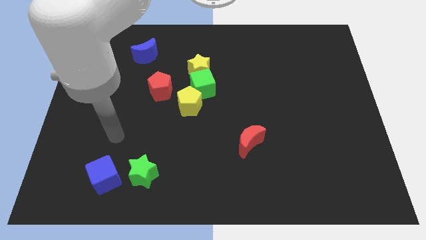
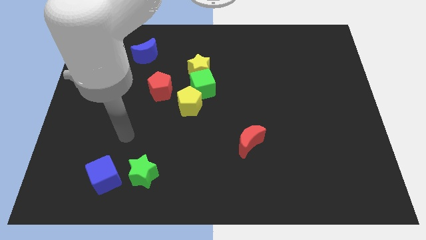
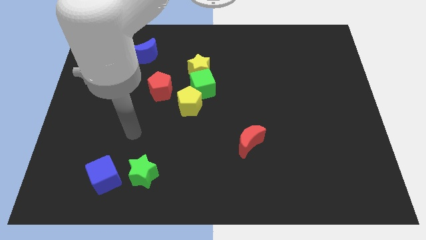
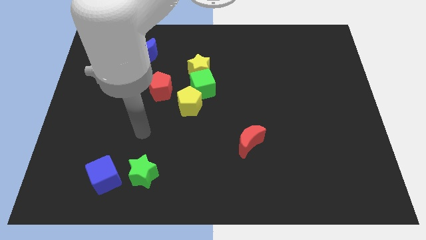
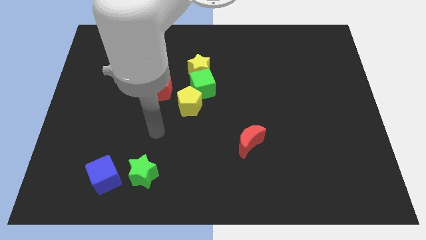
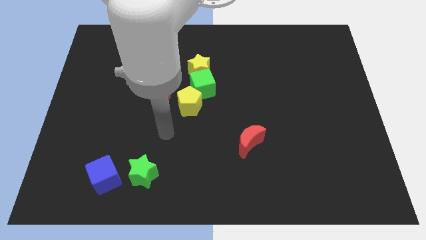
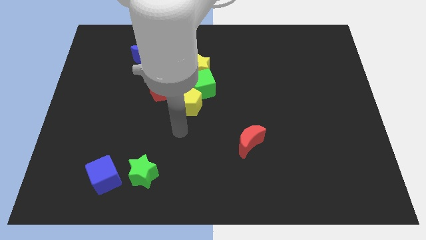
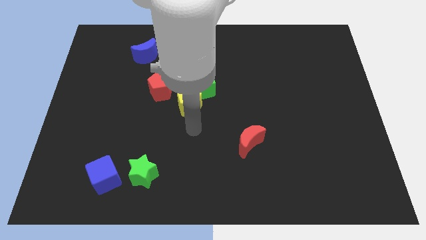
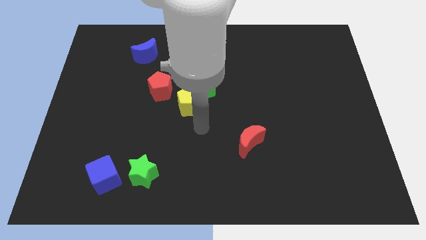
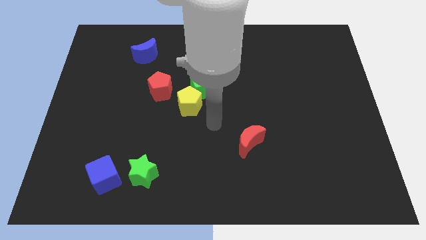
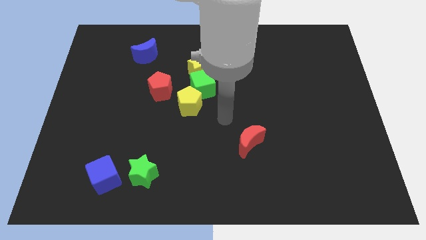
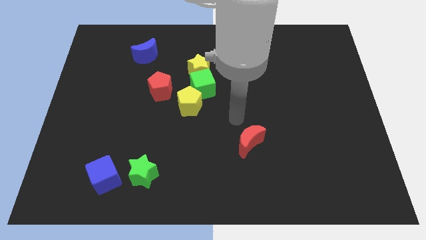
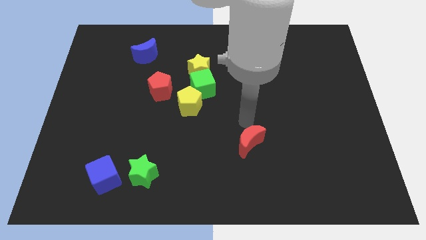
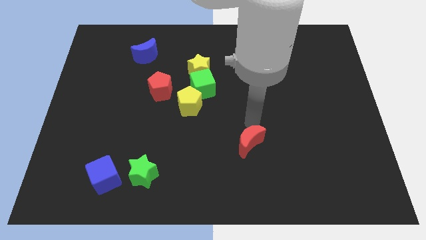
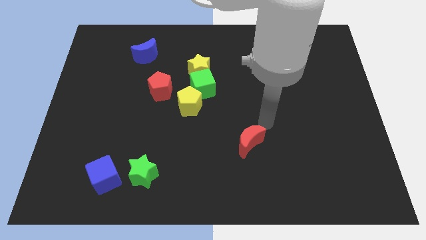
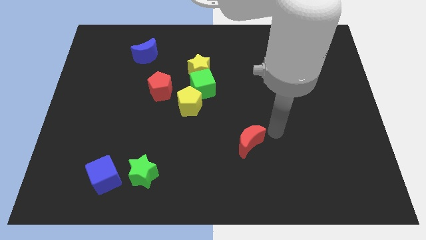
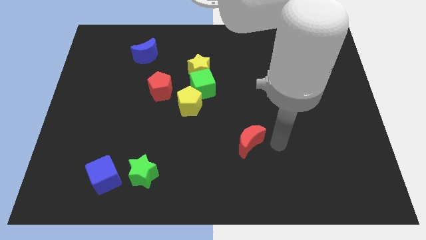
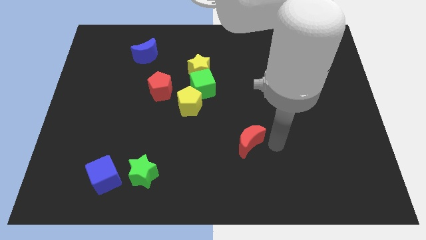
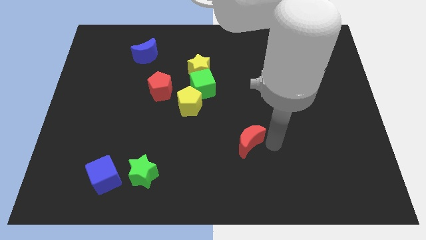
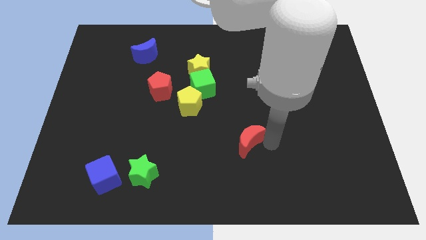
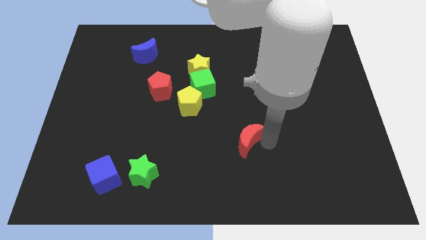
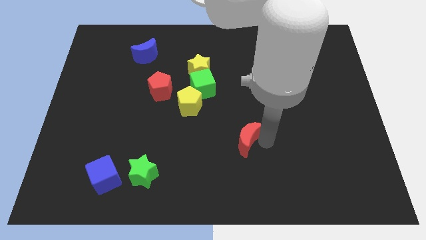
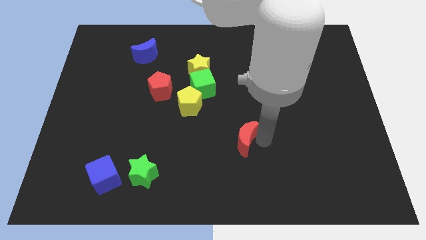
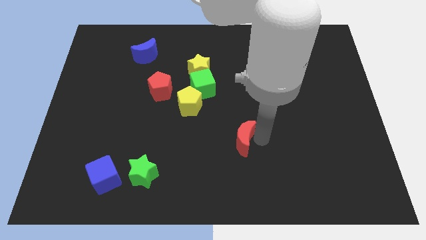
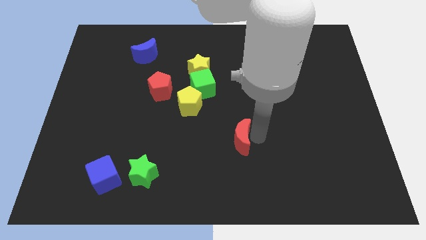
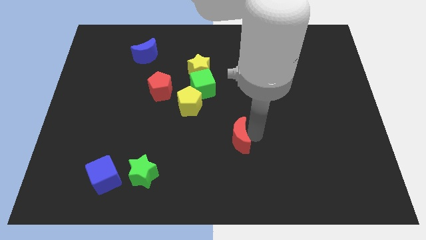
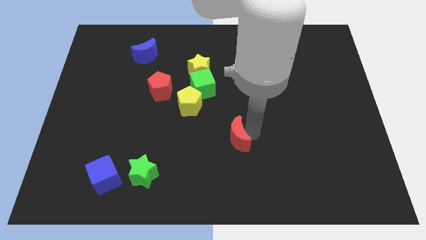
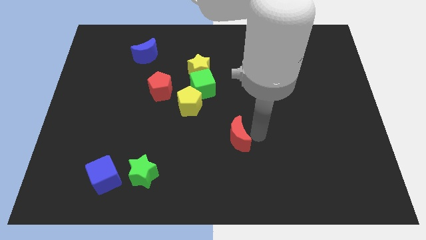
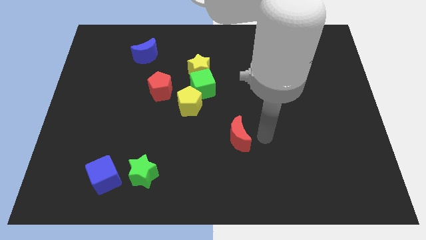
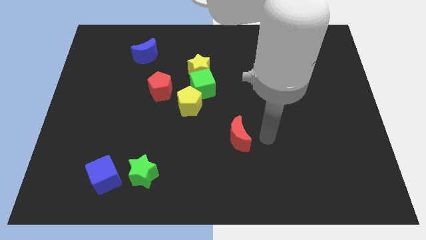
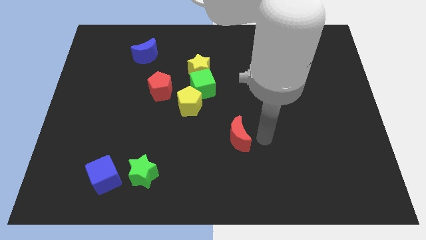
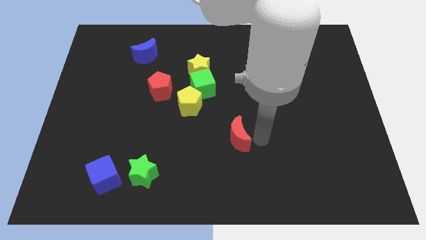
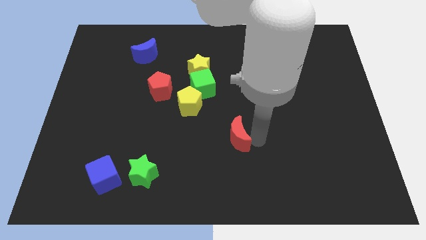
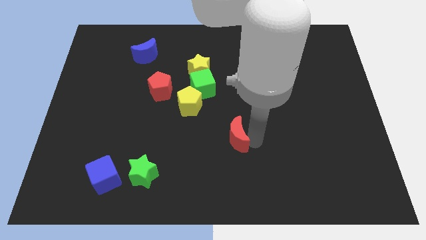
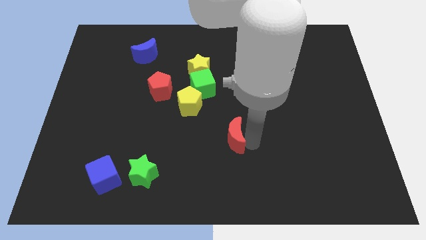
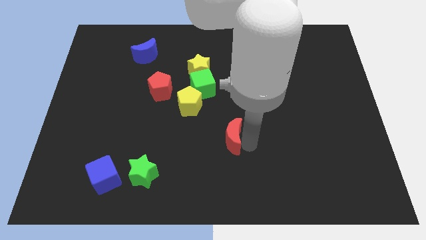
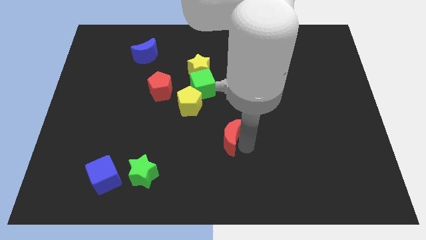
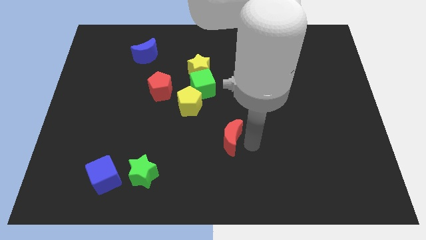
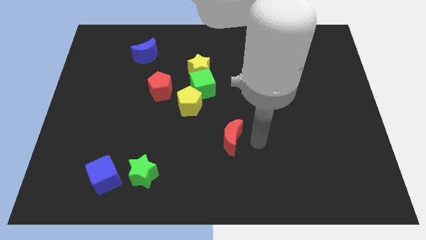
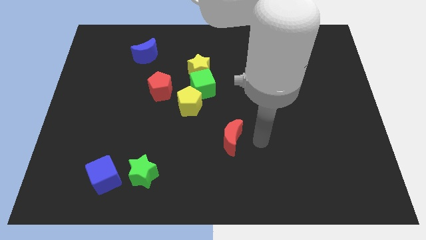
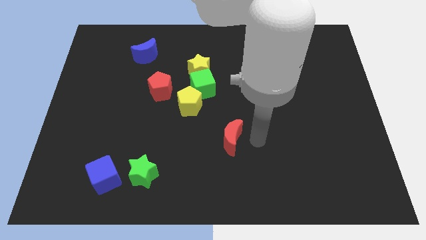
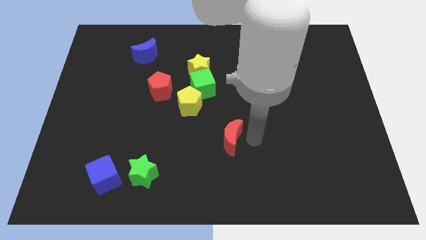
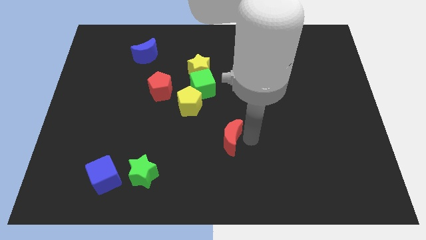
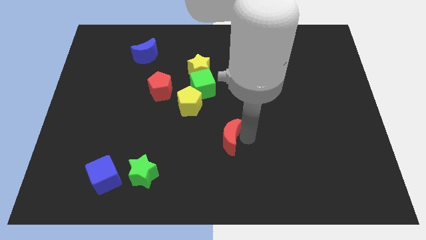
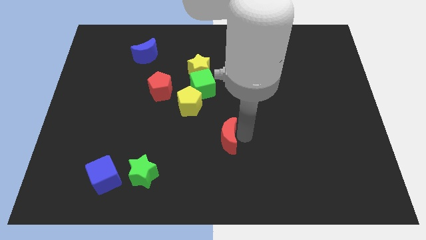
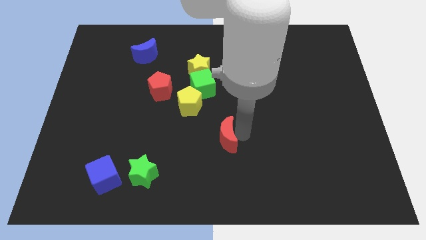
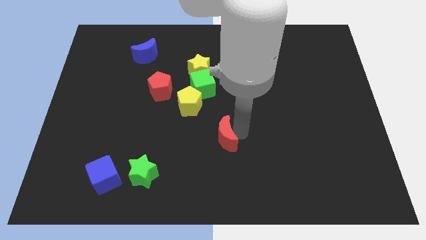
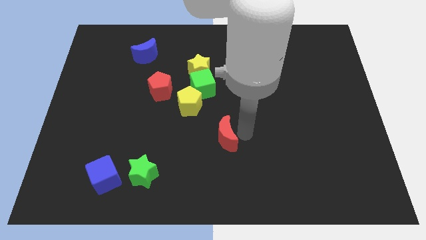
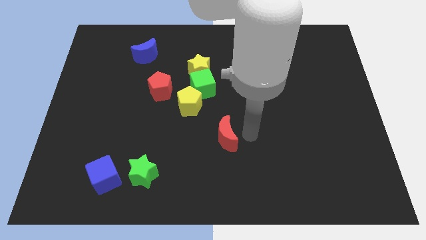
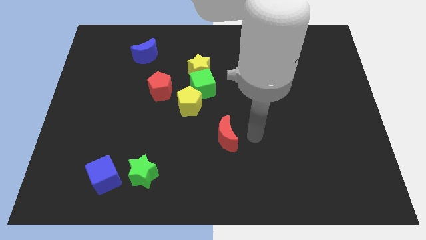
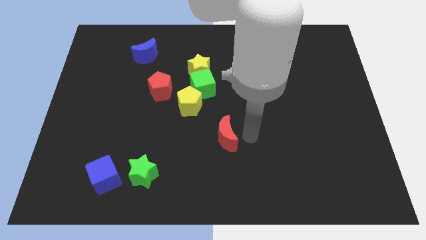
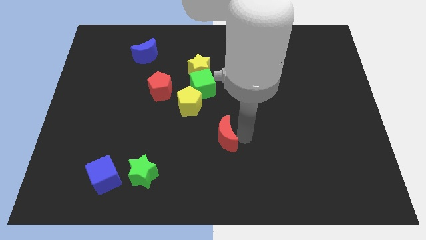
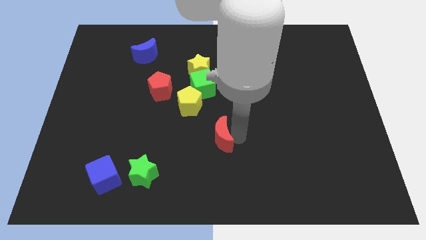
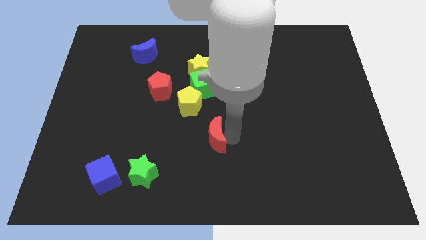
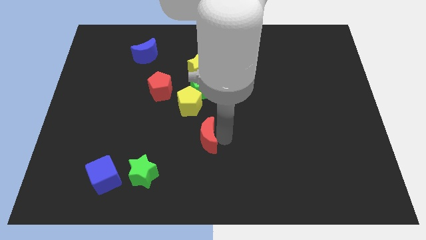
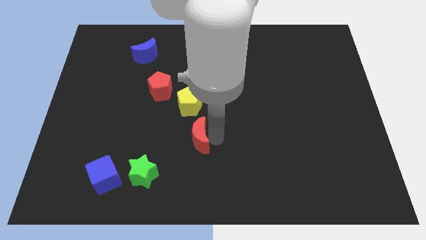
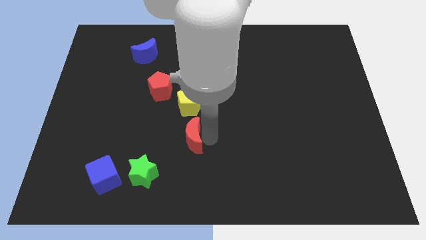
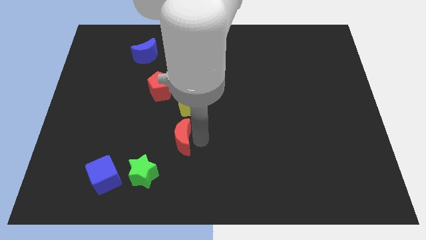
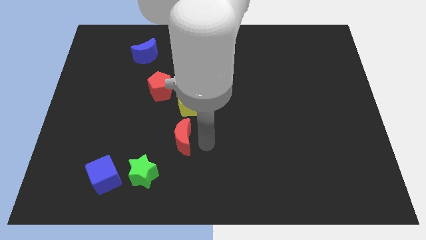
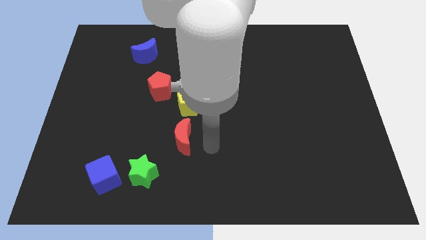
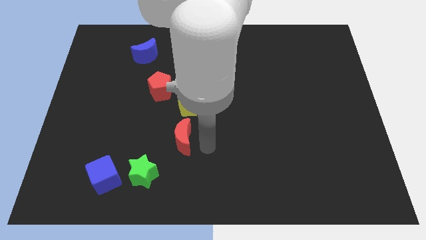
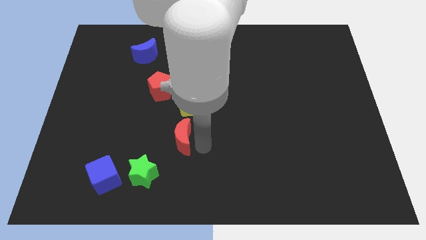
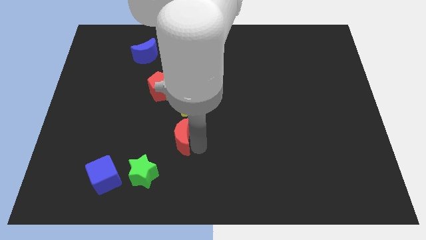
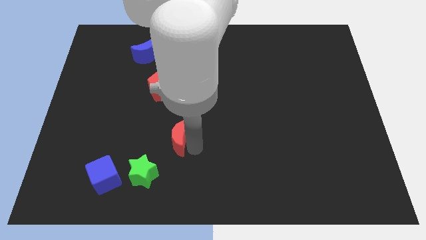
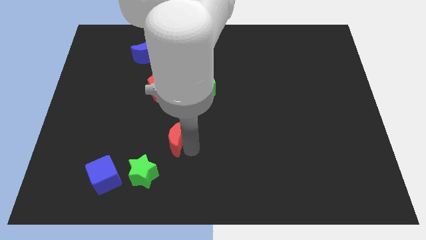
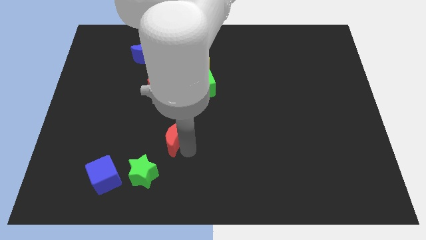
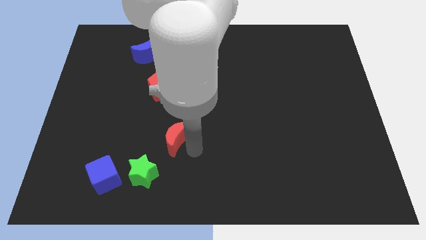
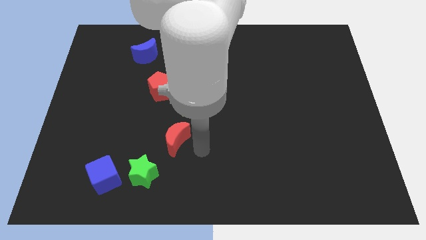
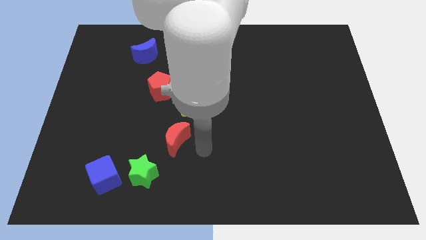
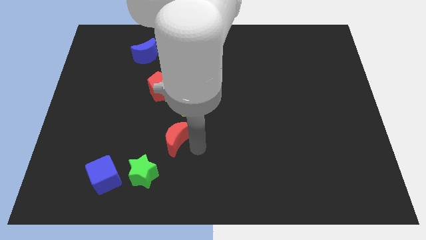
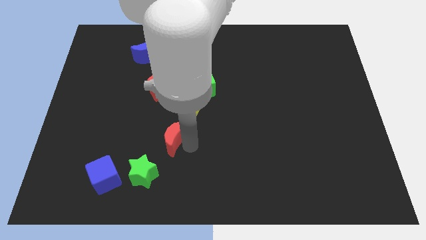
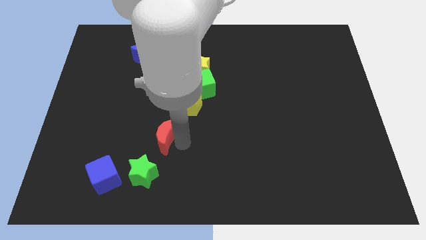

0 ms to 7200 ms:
put the red moon to the top of the green star
